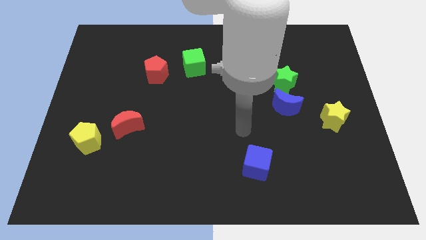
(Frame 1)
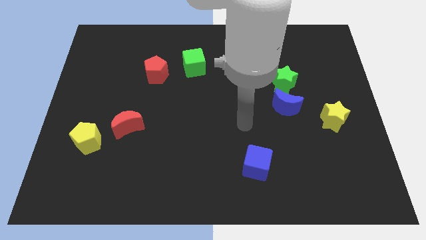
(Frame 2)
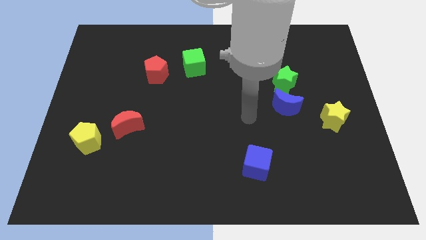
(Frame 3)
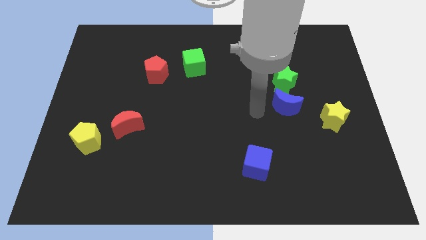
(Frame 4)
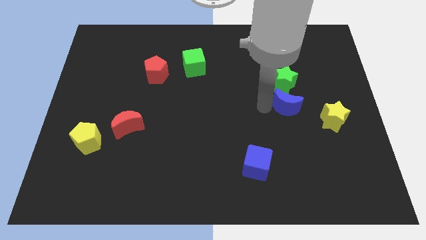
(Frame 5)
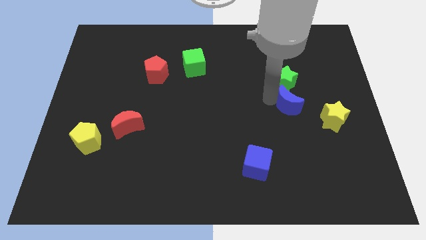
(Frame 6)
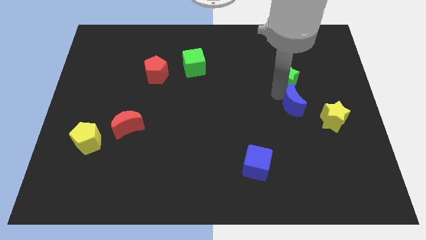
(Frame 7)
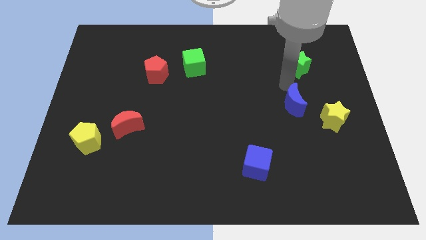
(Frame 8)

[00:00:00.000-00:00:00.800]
pull the blue moon apart from the green star

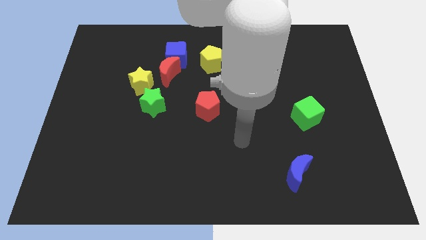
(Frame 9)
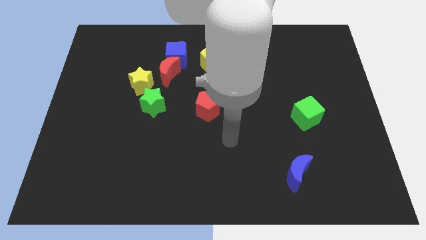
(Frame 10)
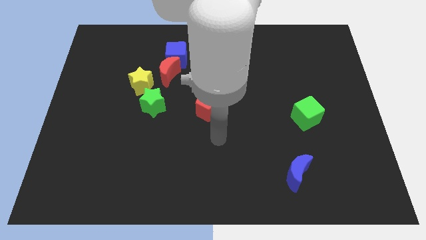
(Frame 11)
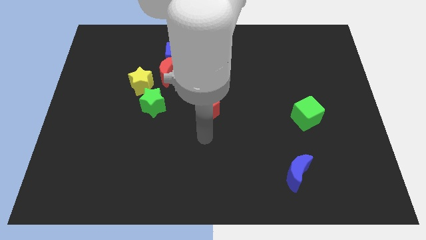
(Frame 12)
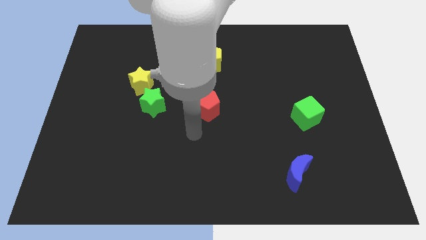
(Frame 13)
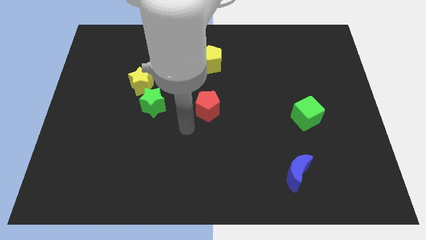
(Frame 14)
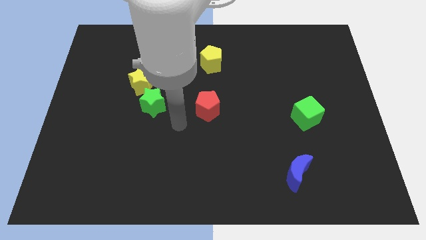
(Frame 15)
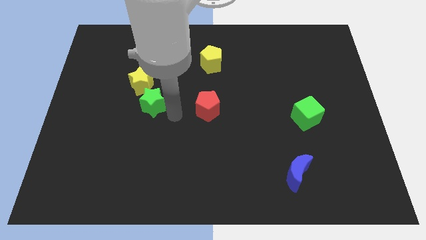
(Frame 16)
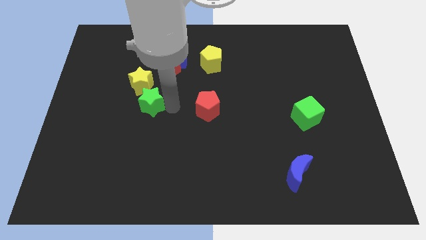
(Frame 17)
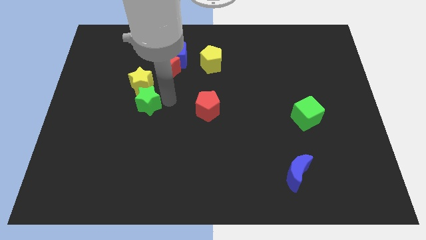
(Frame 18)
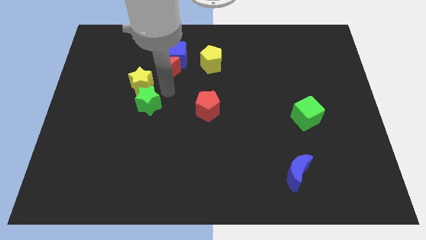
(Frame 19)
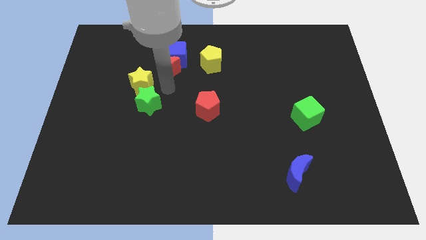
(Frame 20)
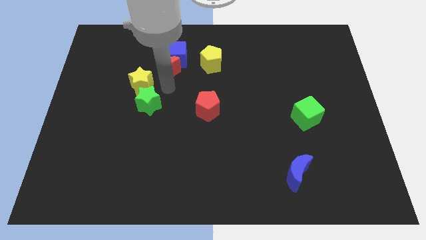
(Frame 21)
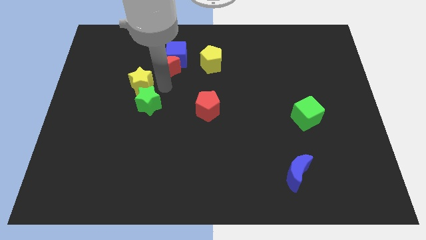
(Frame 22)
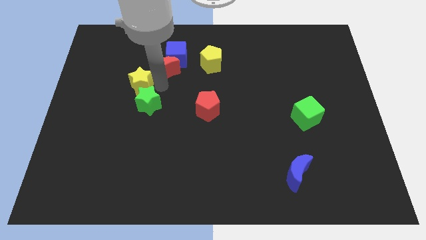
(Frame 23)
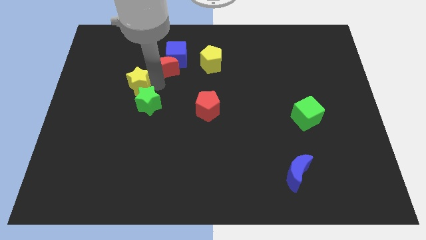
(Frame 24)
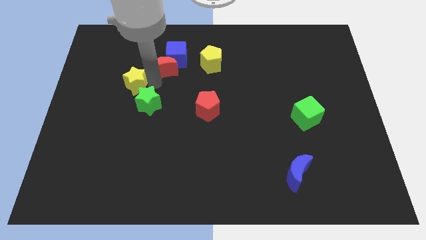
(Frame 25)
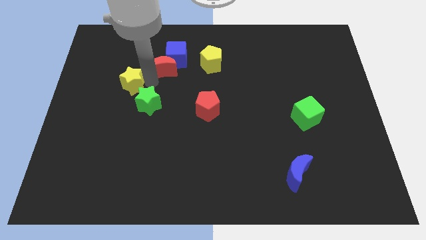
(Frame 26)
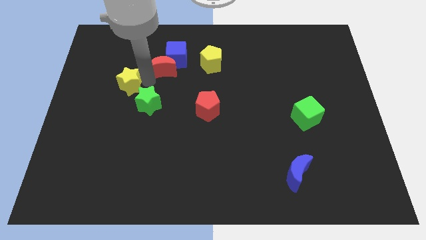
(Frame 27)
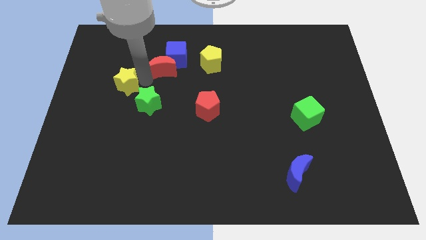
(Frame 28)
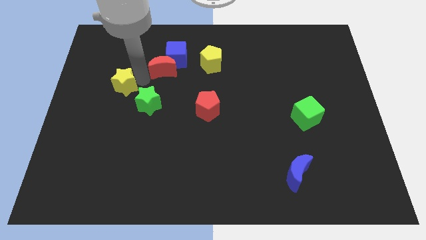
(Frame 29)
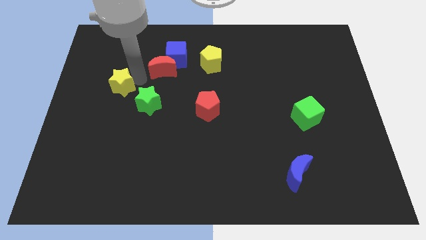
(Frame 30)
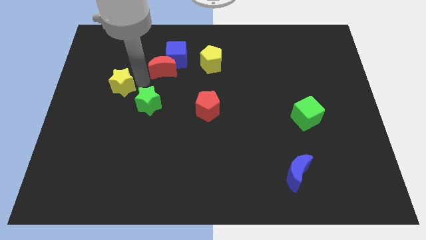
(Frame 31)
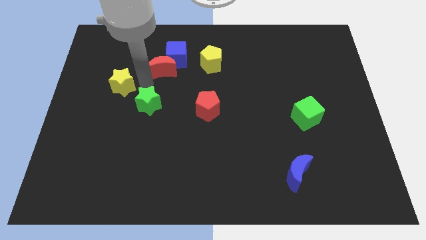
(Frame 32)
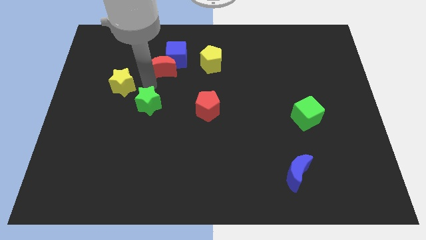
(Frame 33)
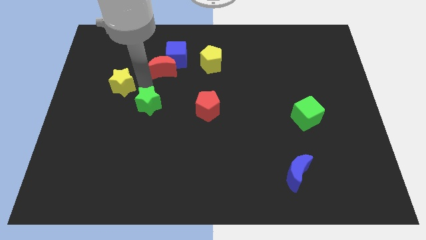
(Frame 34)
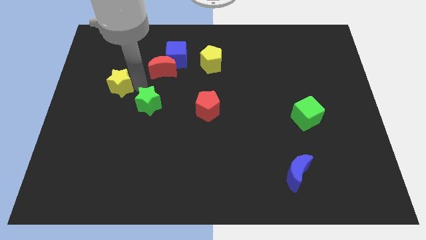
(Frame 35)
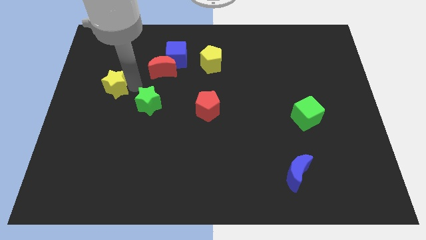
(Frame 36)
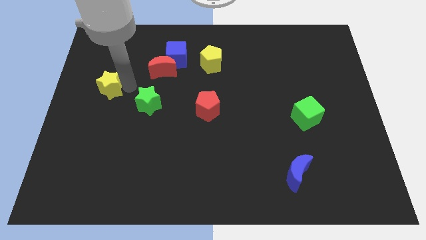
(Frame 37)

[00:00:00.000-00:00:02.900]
move the yellow star away from the green star and red moon

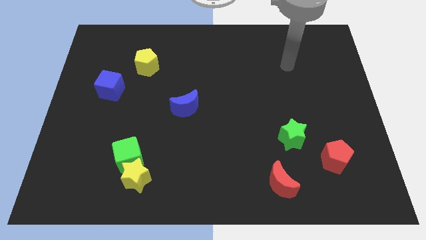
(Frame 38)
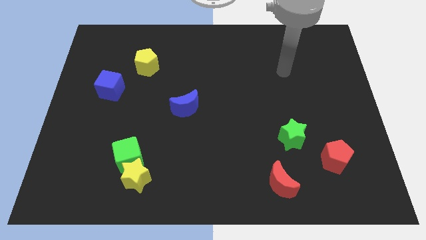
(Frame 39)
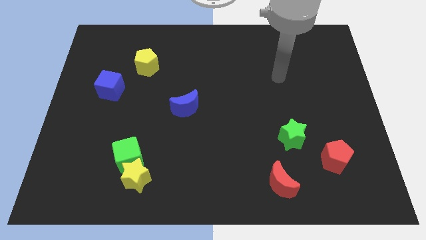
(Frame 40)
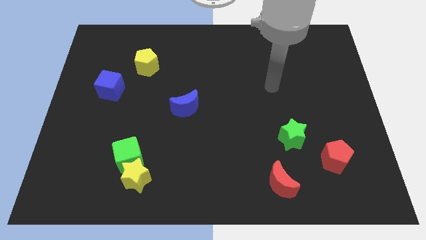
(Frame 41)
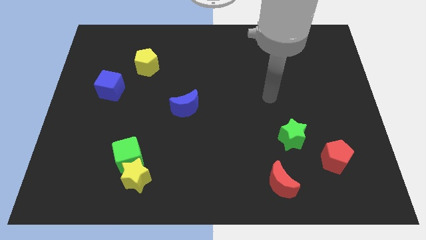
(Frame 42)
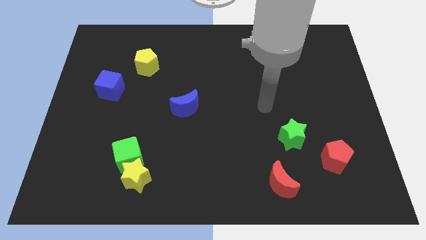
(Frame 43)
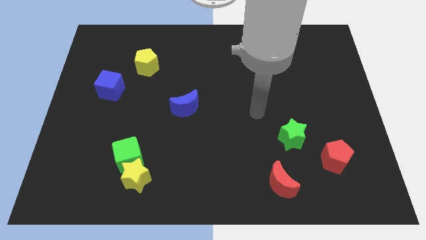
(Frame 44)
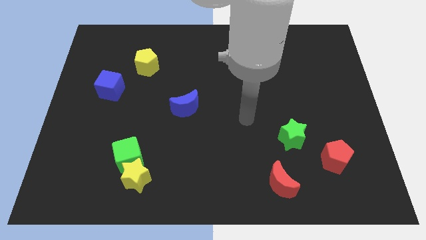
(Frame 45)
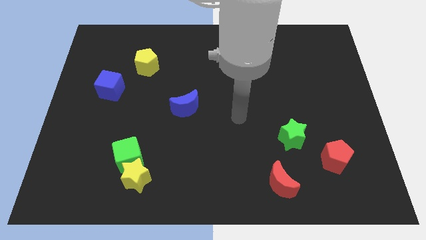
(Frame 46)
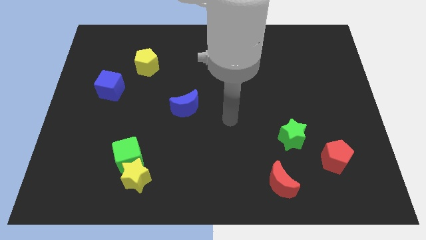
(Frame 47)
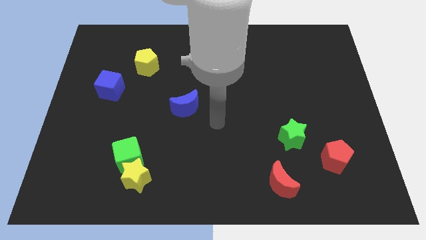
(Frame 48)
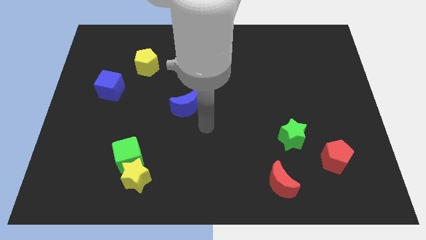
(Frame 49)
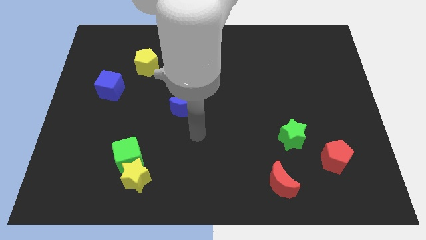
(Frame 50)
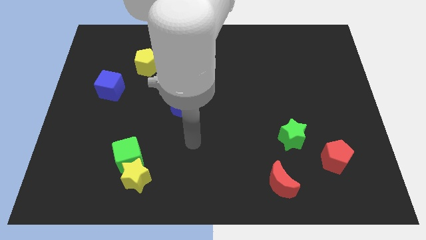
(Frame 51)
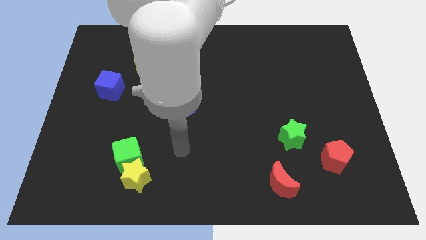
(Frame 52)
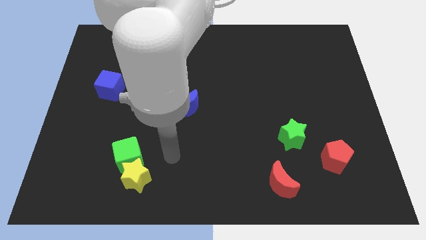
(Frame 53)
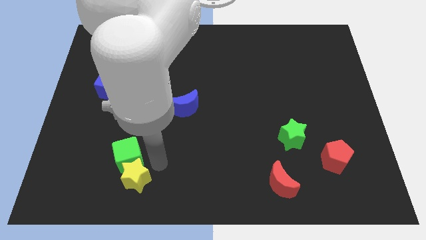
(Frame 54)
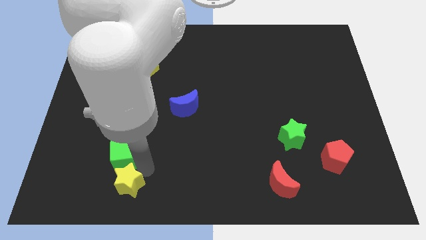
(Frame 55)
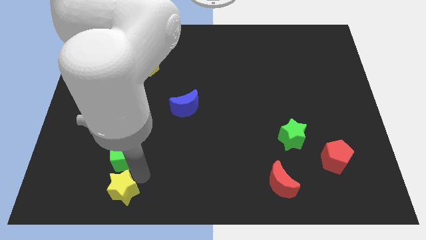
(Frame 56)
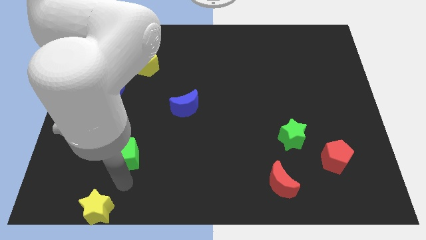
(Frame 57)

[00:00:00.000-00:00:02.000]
separate the green cube from the yellow star

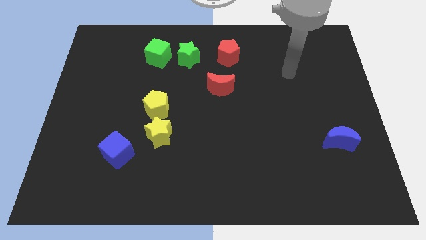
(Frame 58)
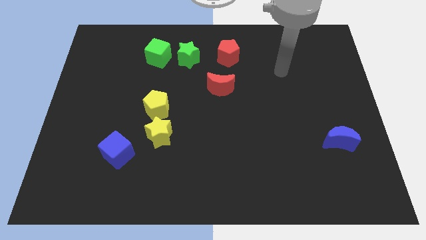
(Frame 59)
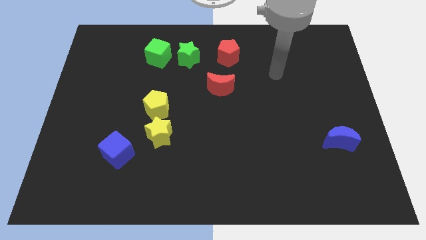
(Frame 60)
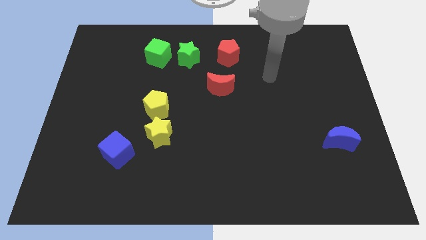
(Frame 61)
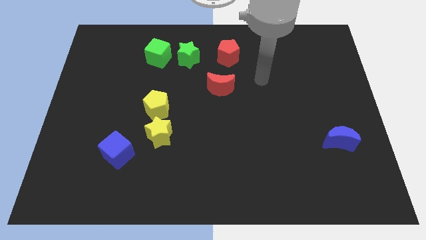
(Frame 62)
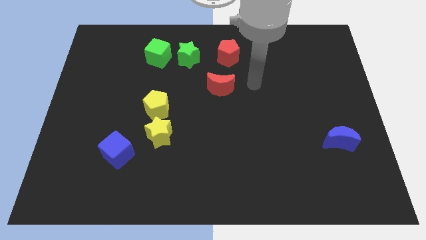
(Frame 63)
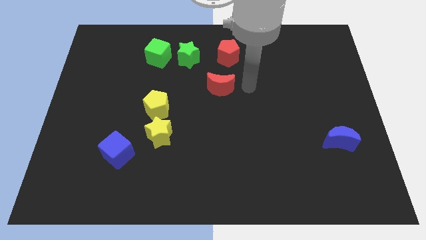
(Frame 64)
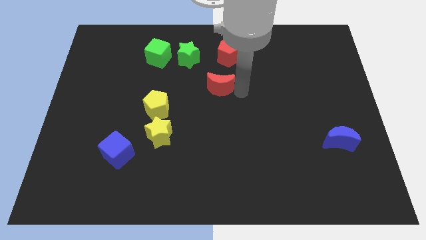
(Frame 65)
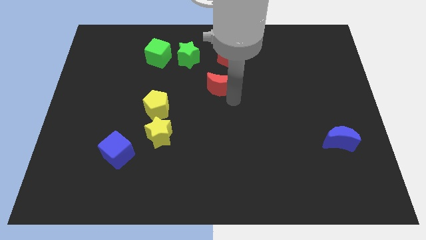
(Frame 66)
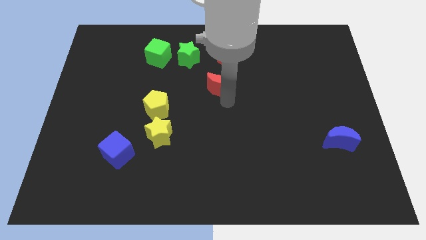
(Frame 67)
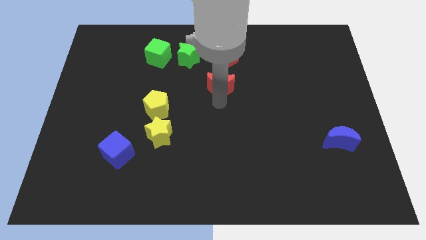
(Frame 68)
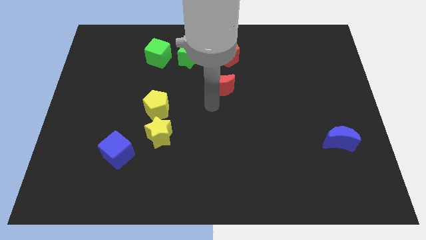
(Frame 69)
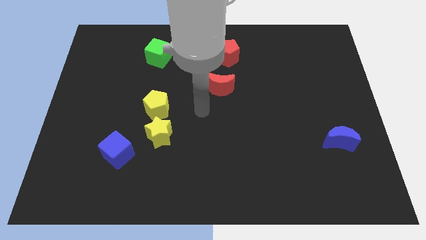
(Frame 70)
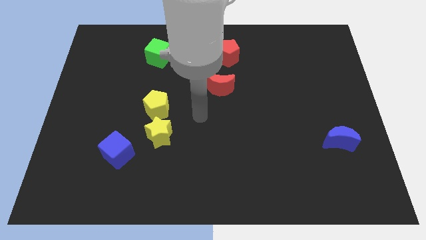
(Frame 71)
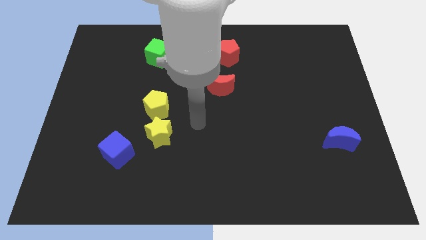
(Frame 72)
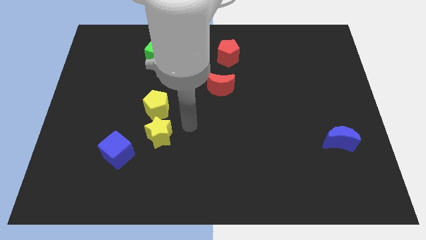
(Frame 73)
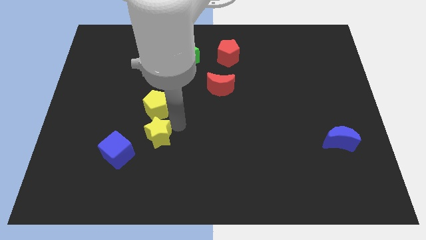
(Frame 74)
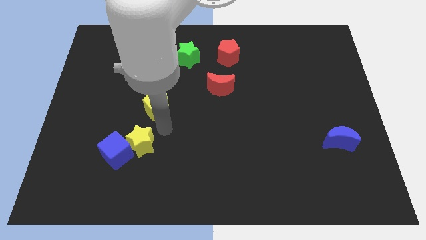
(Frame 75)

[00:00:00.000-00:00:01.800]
separate the yellow pentagon from the yellow star

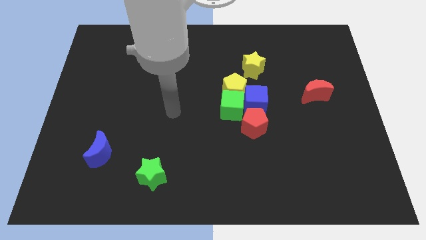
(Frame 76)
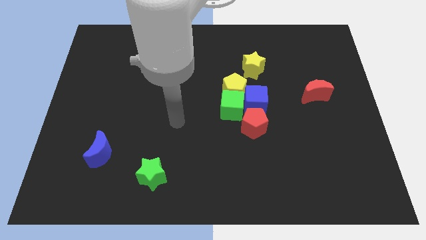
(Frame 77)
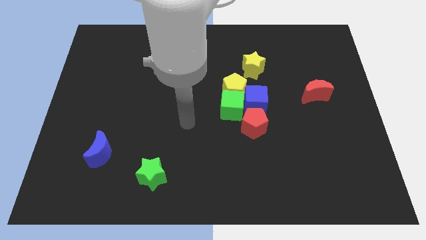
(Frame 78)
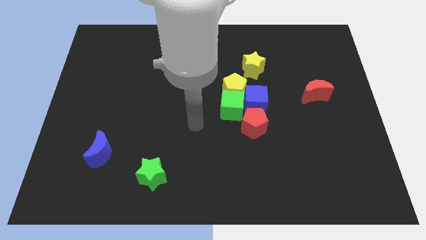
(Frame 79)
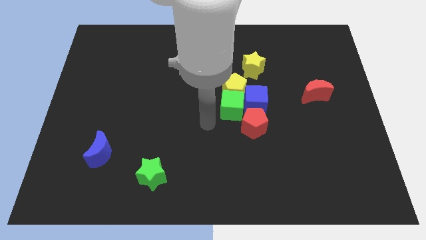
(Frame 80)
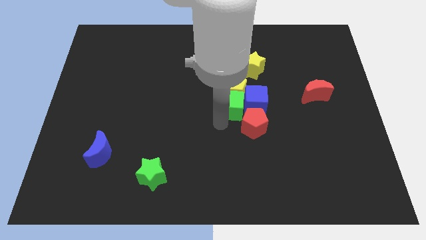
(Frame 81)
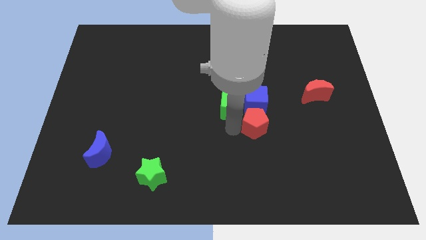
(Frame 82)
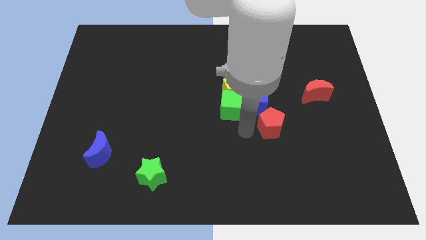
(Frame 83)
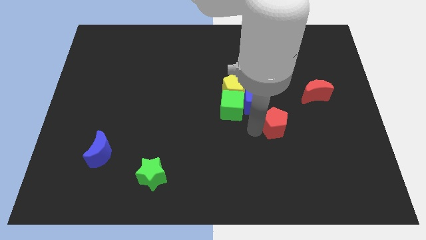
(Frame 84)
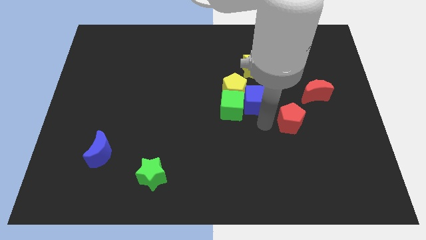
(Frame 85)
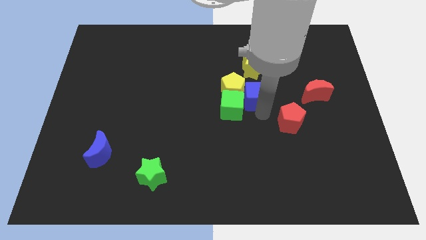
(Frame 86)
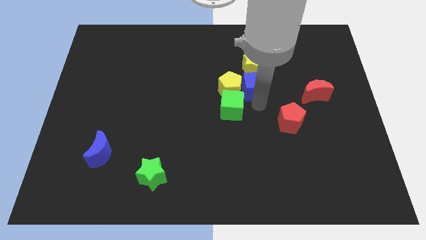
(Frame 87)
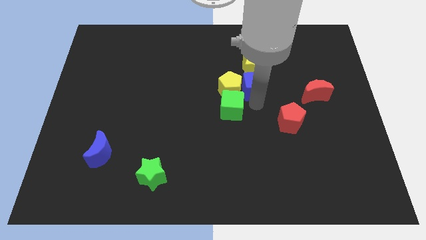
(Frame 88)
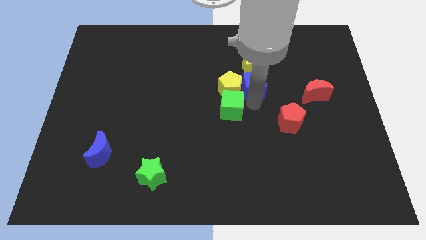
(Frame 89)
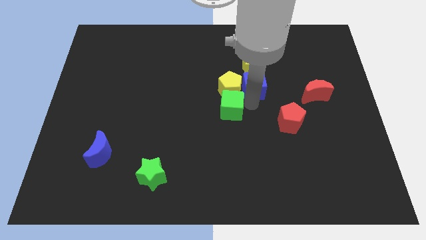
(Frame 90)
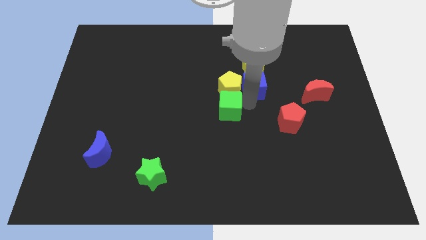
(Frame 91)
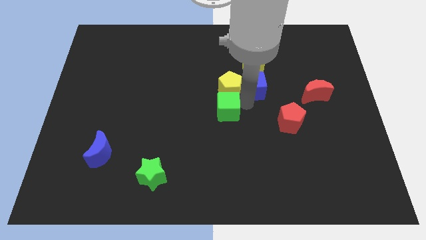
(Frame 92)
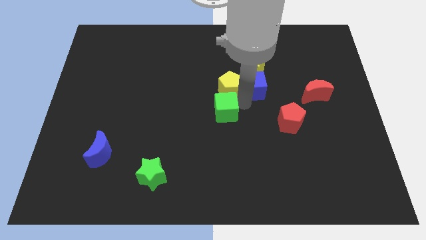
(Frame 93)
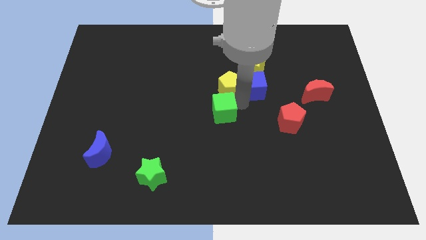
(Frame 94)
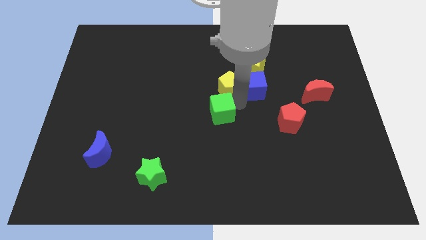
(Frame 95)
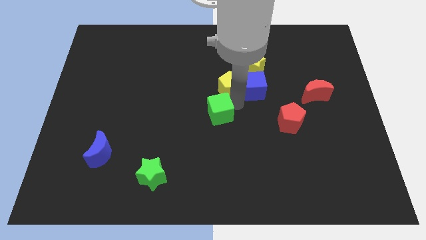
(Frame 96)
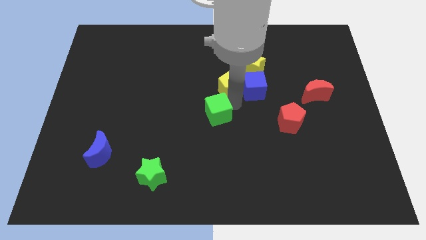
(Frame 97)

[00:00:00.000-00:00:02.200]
pull the green cube apart from the group
